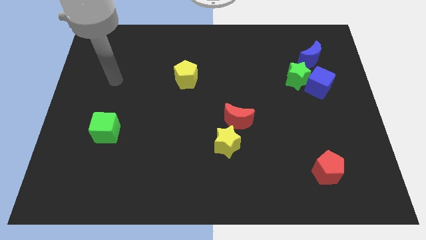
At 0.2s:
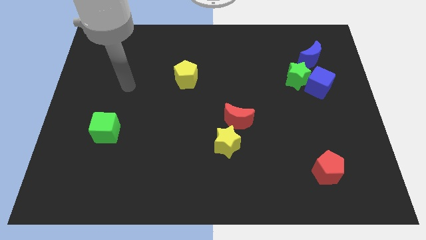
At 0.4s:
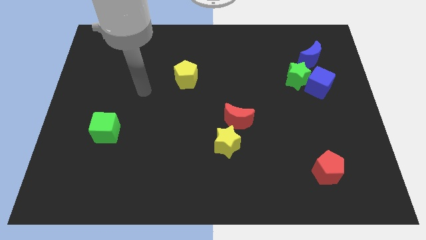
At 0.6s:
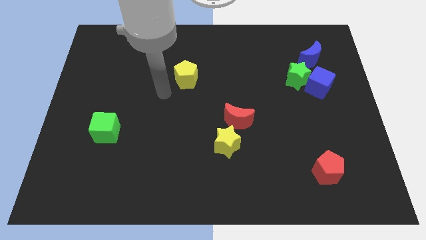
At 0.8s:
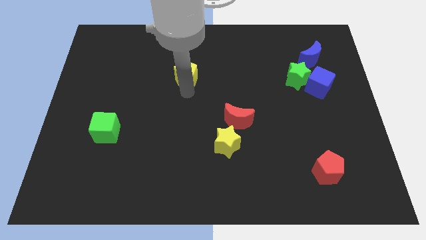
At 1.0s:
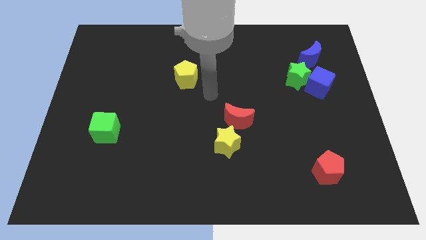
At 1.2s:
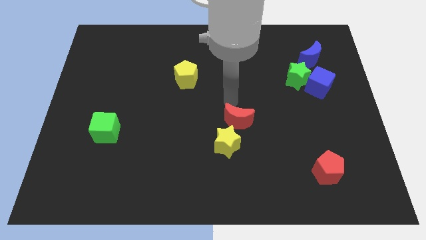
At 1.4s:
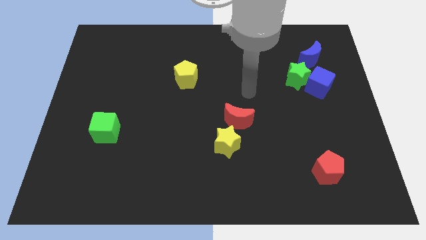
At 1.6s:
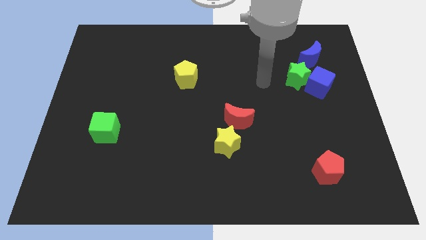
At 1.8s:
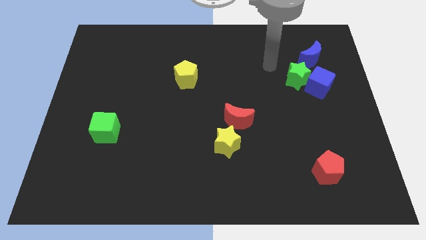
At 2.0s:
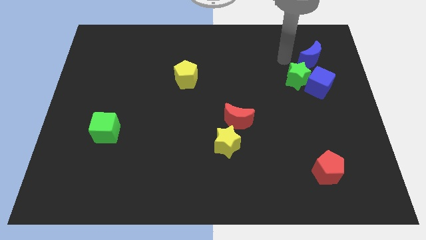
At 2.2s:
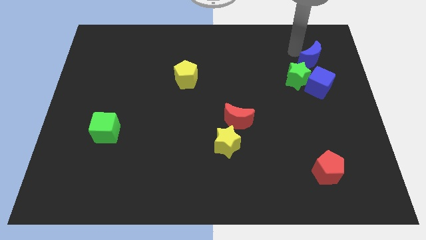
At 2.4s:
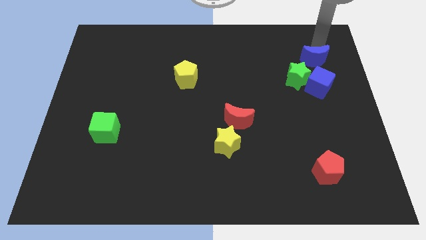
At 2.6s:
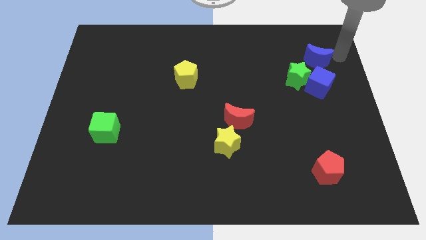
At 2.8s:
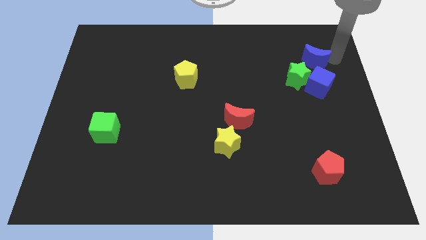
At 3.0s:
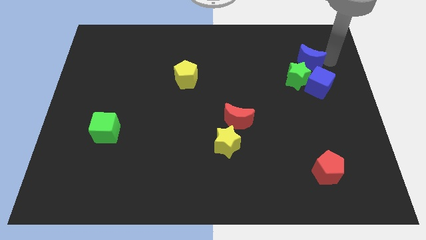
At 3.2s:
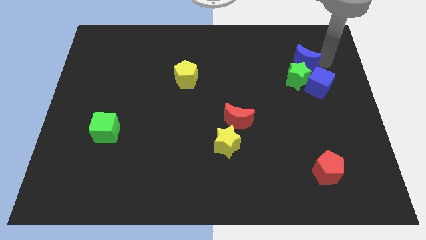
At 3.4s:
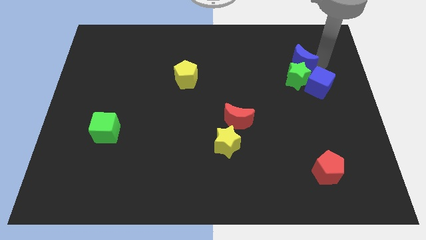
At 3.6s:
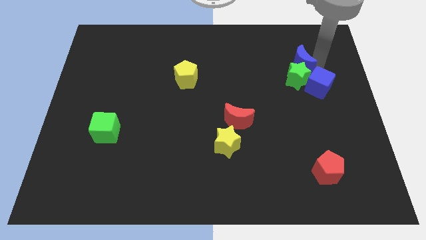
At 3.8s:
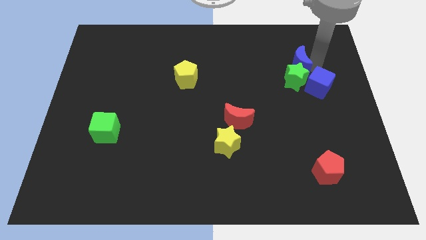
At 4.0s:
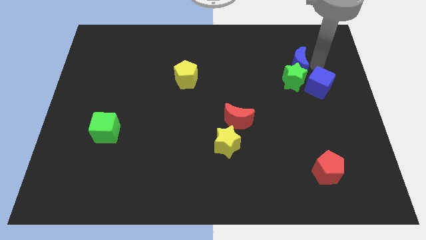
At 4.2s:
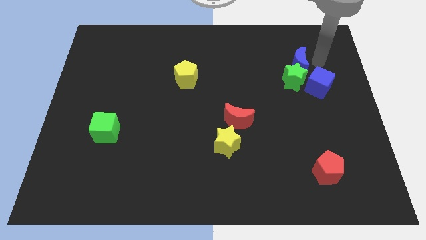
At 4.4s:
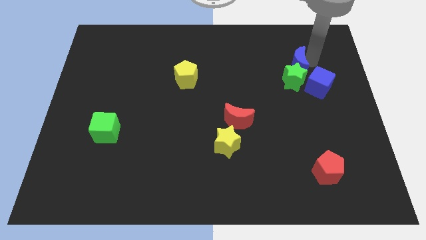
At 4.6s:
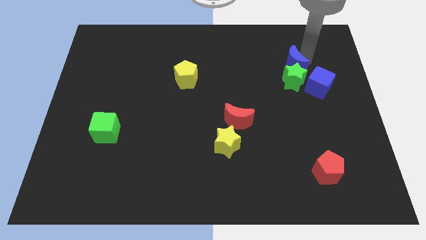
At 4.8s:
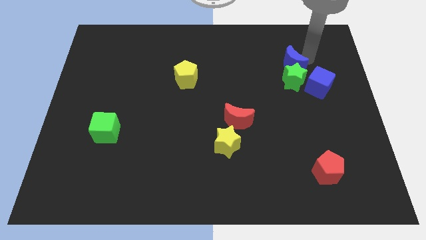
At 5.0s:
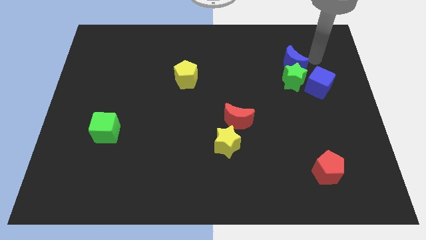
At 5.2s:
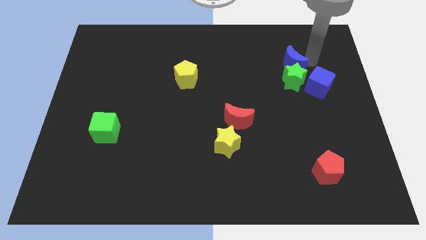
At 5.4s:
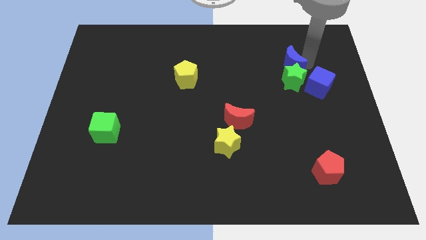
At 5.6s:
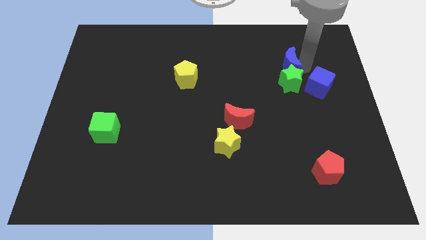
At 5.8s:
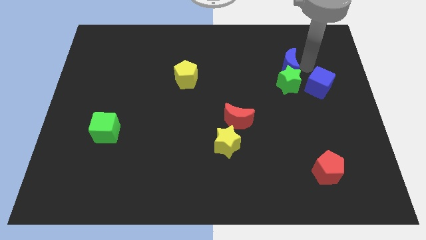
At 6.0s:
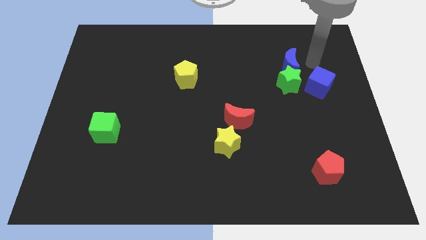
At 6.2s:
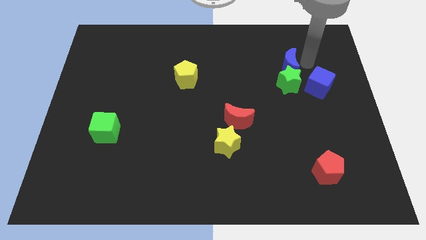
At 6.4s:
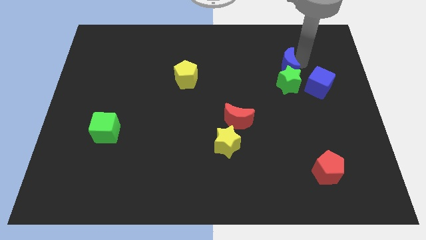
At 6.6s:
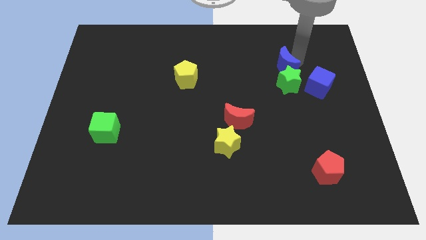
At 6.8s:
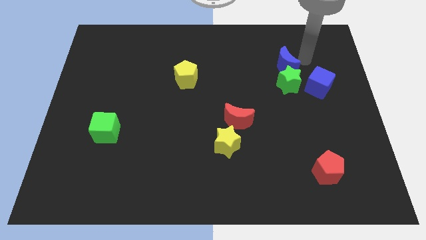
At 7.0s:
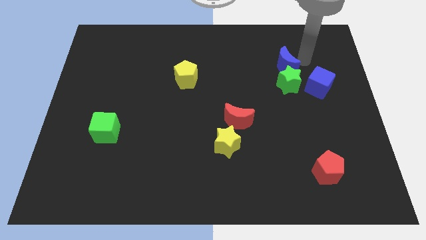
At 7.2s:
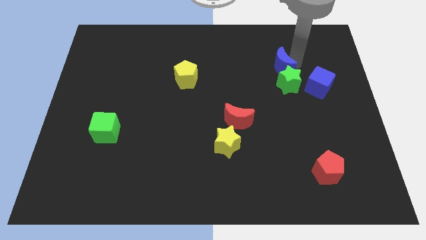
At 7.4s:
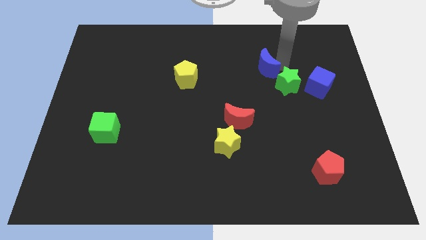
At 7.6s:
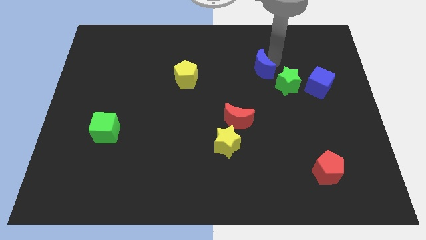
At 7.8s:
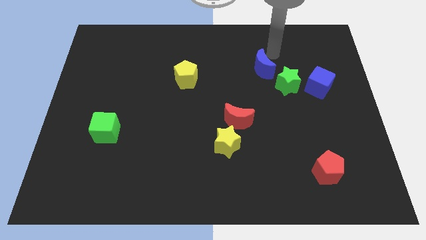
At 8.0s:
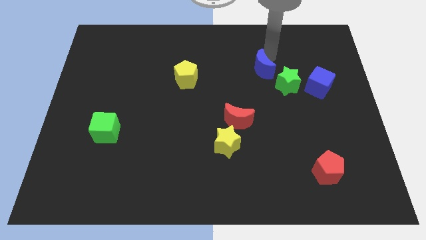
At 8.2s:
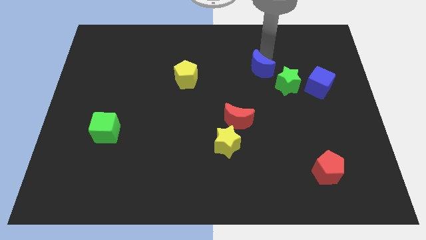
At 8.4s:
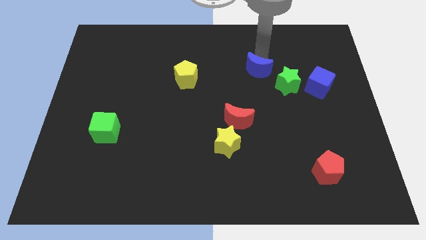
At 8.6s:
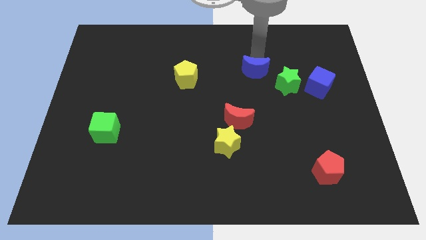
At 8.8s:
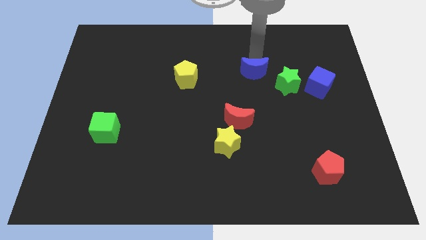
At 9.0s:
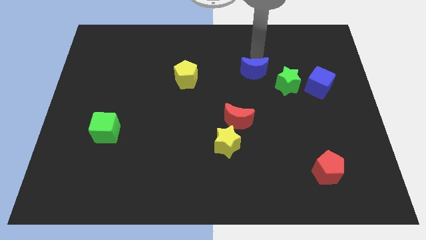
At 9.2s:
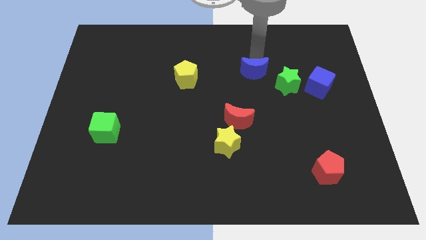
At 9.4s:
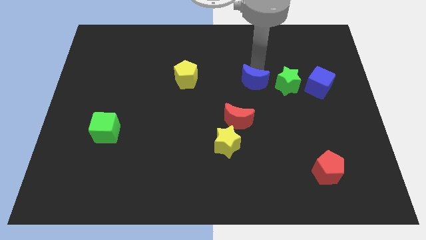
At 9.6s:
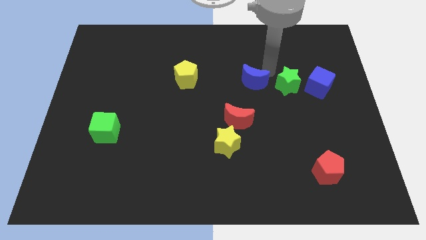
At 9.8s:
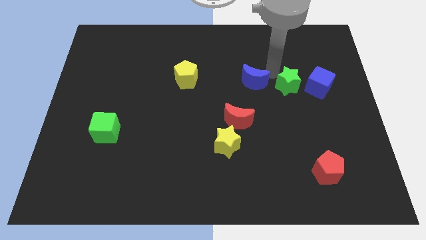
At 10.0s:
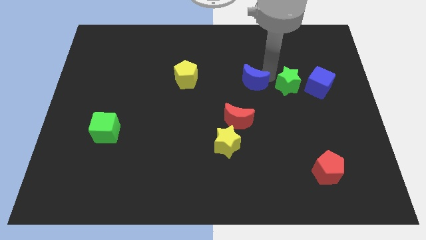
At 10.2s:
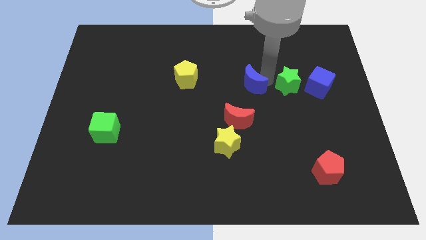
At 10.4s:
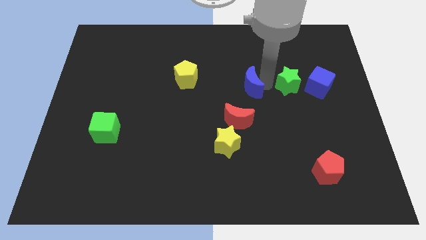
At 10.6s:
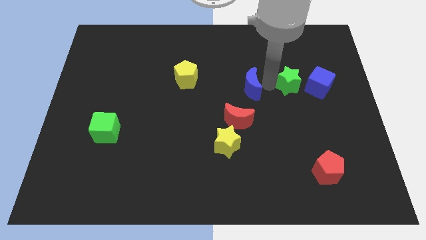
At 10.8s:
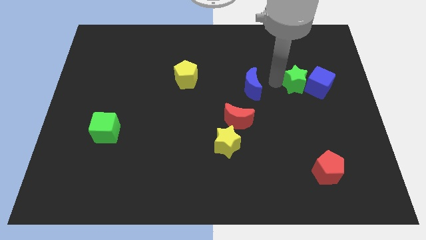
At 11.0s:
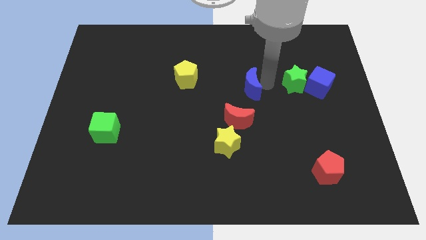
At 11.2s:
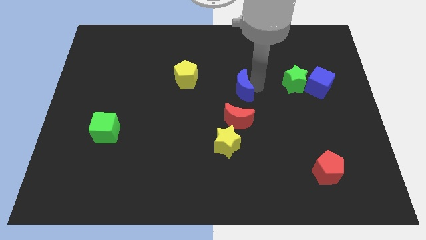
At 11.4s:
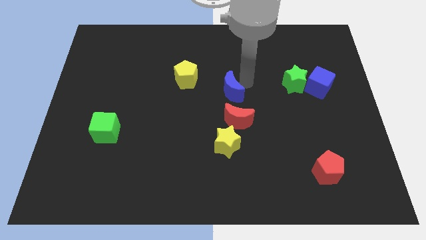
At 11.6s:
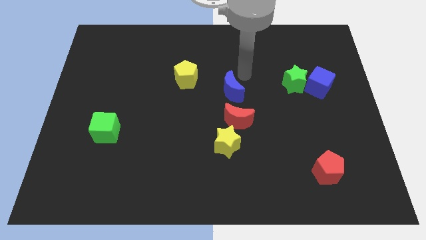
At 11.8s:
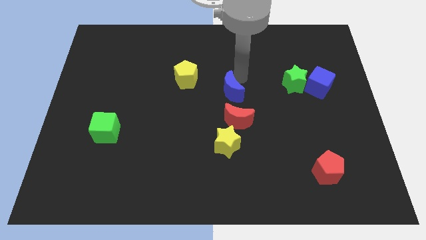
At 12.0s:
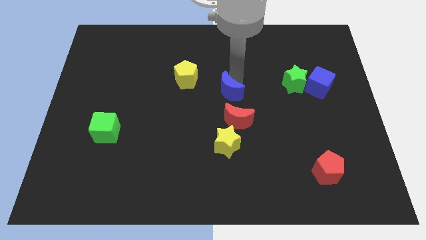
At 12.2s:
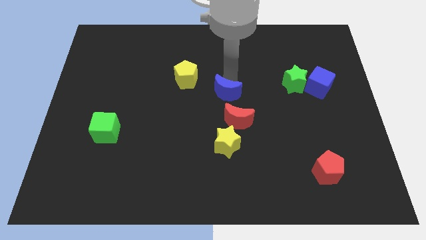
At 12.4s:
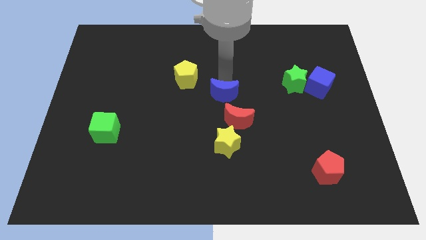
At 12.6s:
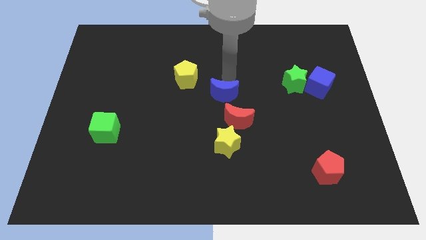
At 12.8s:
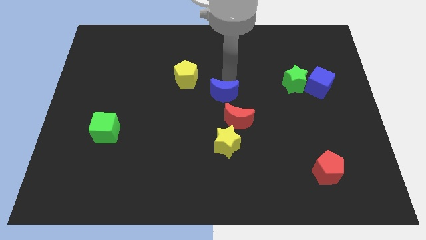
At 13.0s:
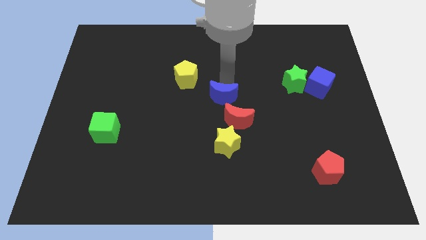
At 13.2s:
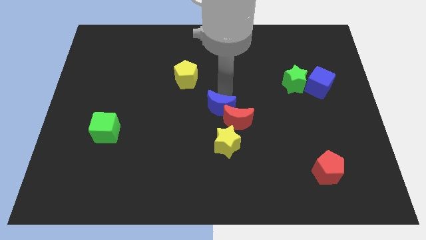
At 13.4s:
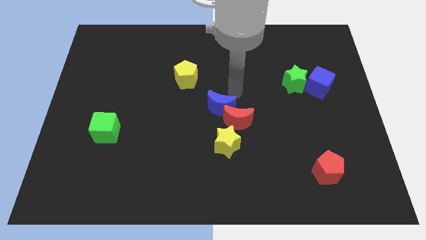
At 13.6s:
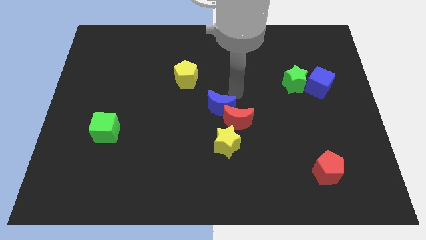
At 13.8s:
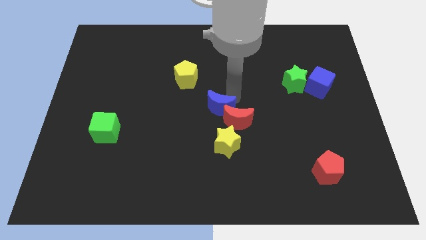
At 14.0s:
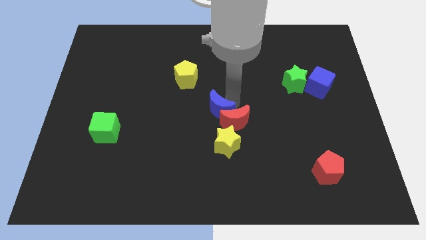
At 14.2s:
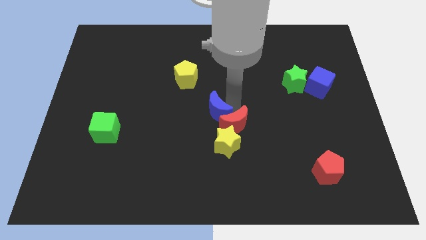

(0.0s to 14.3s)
push the blue moon to the top left of the yellow star
